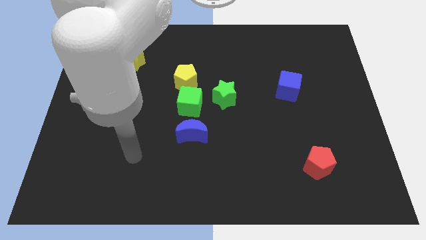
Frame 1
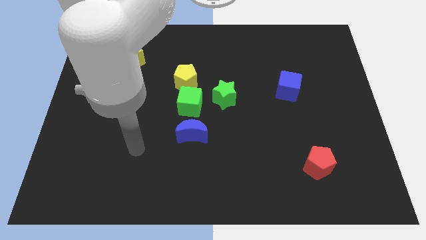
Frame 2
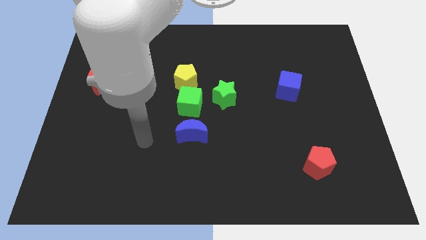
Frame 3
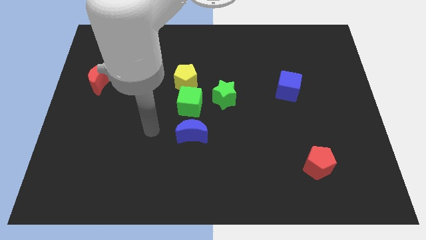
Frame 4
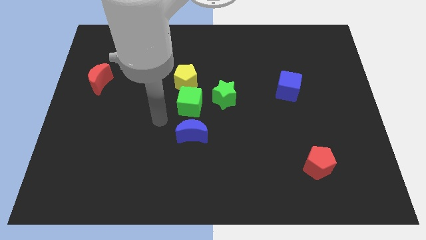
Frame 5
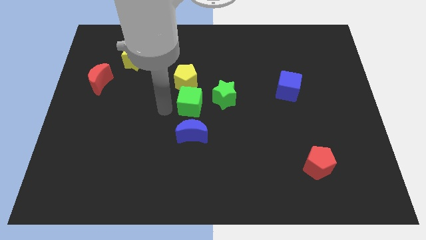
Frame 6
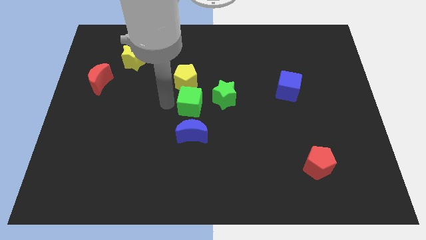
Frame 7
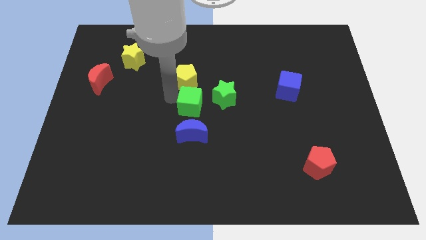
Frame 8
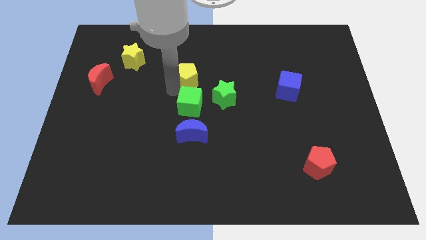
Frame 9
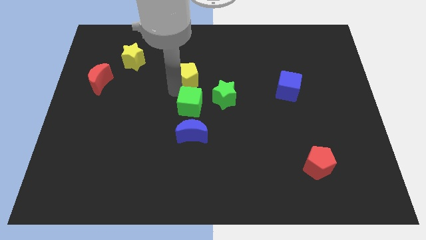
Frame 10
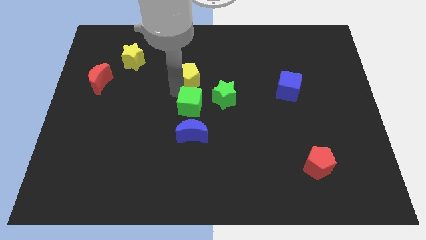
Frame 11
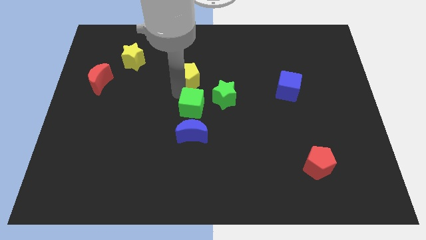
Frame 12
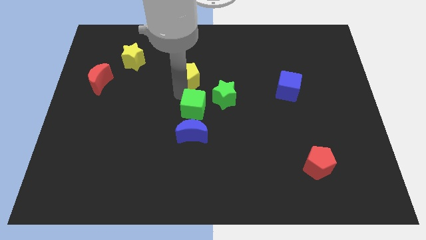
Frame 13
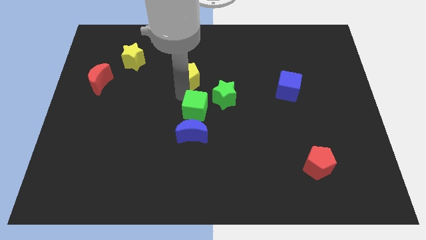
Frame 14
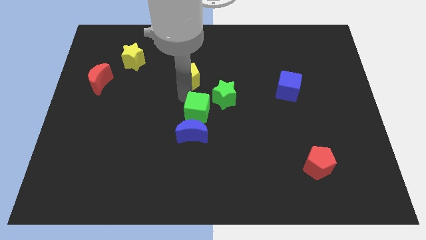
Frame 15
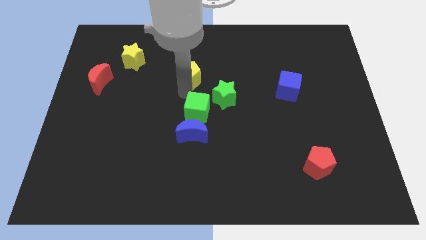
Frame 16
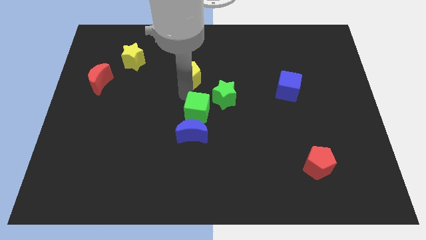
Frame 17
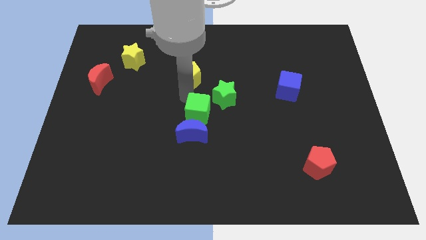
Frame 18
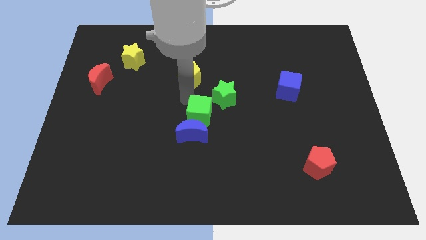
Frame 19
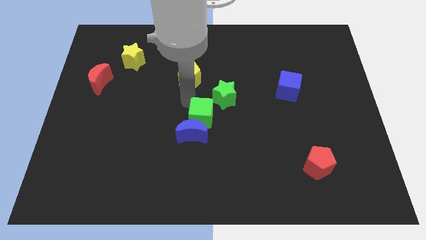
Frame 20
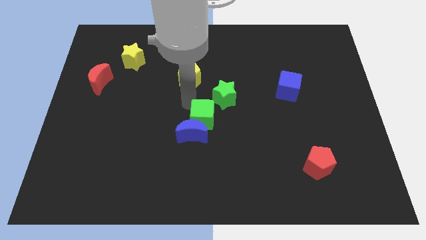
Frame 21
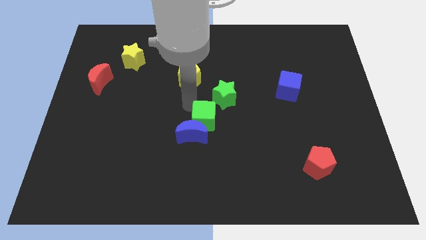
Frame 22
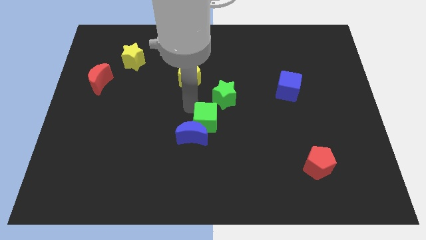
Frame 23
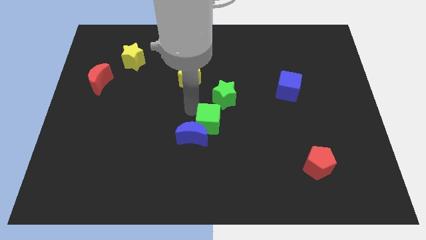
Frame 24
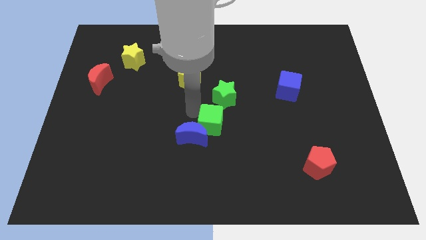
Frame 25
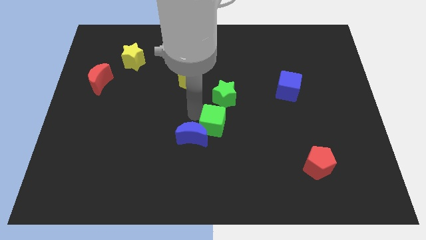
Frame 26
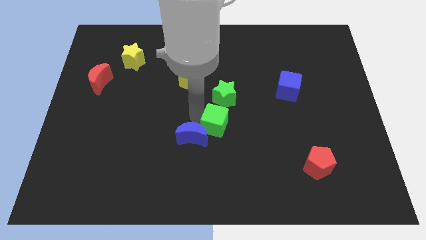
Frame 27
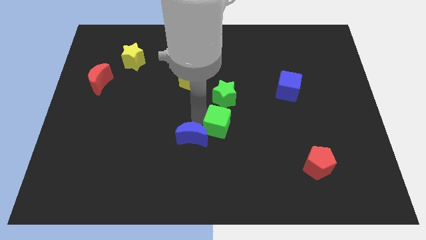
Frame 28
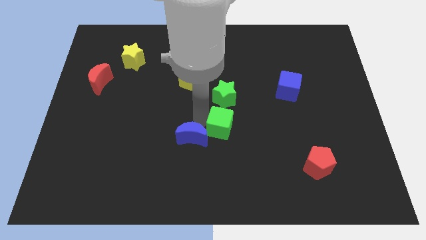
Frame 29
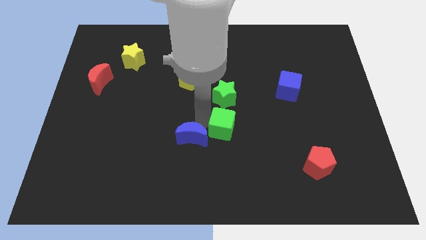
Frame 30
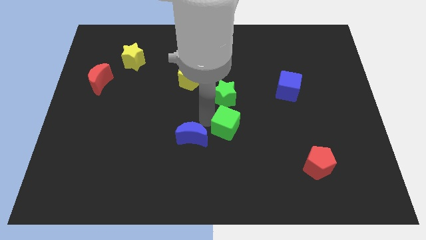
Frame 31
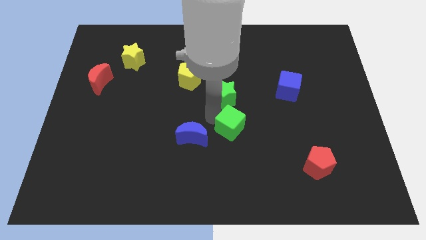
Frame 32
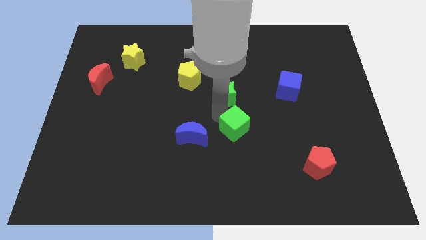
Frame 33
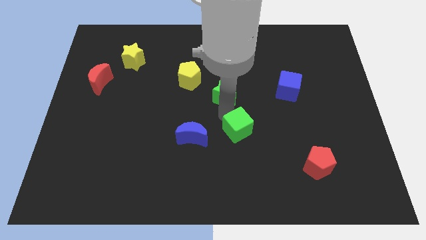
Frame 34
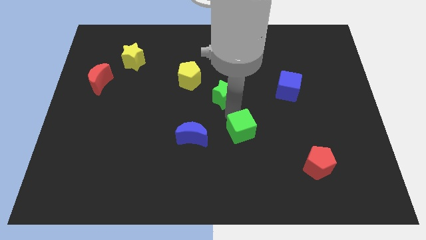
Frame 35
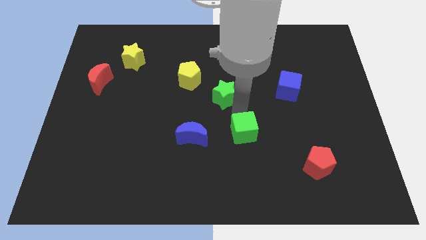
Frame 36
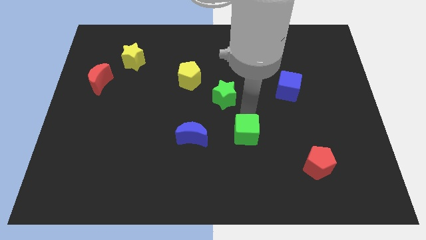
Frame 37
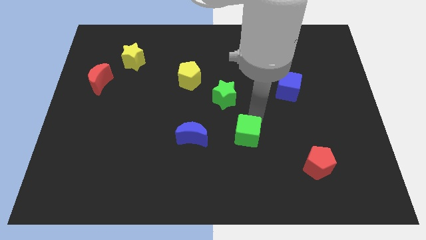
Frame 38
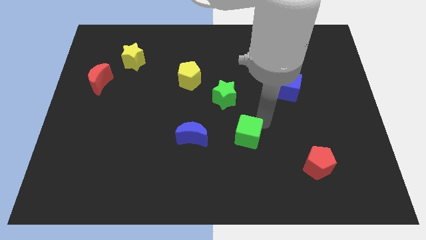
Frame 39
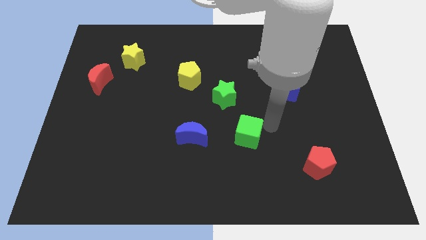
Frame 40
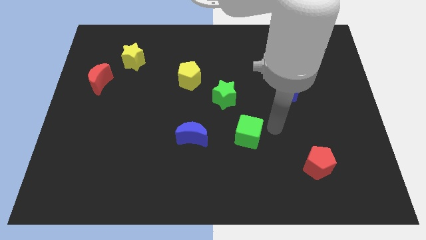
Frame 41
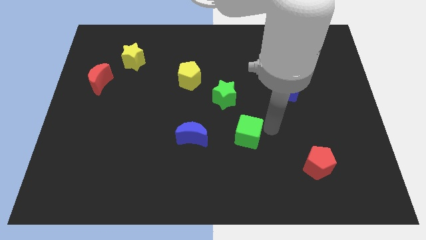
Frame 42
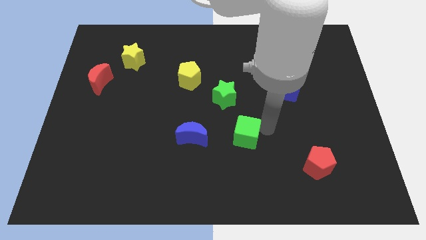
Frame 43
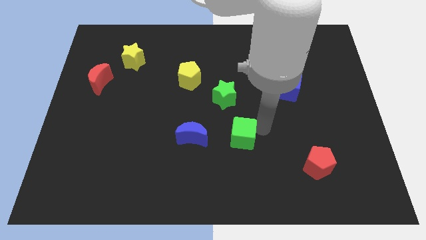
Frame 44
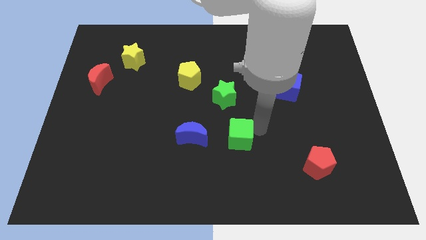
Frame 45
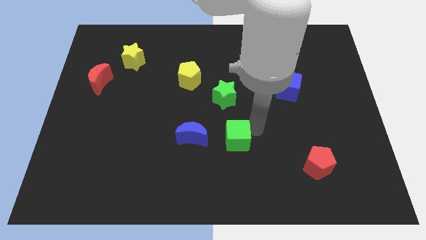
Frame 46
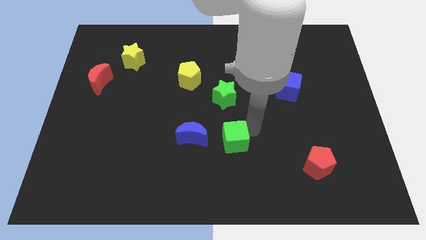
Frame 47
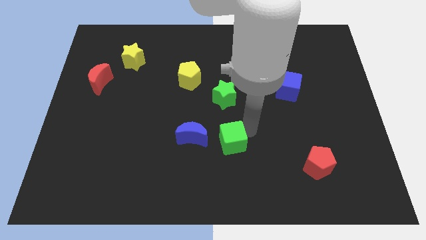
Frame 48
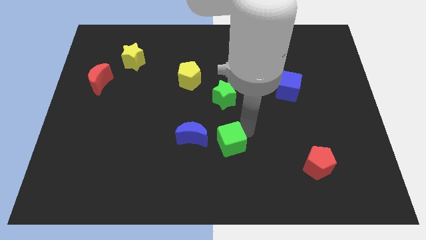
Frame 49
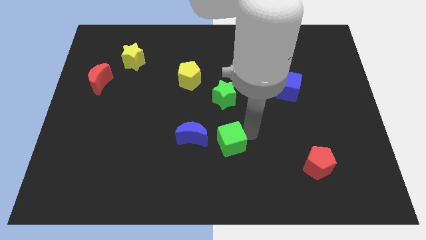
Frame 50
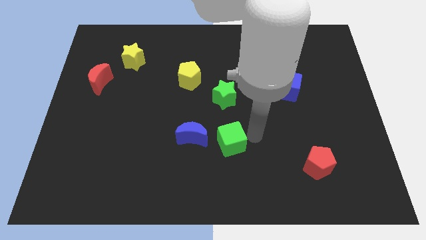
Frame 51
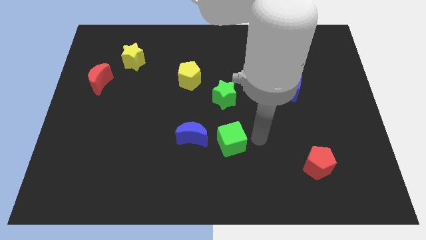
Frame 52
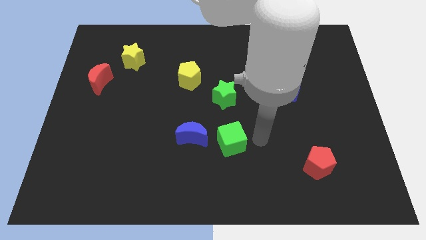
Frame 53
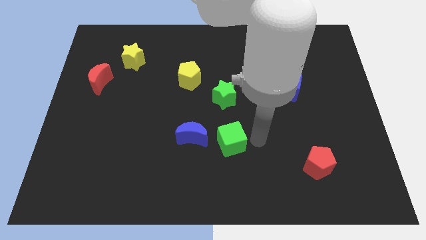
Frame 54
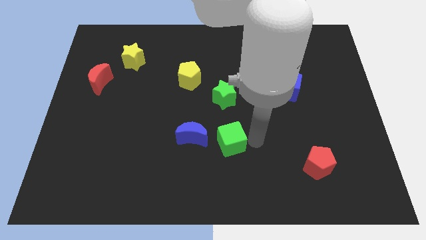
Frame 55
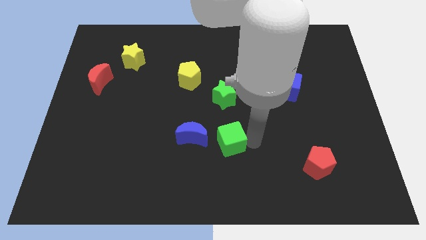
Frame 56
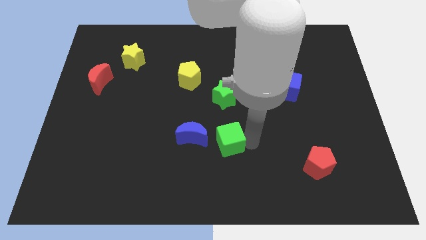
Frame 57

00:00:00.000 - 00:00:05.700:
move the green cube down somewhat

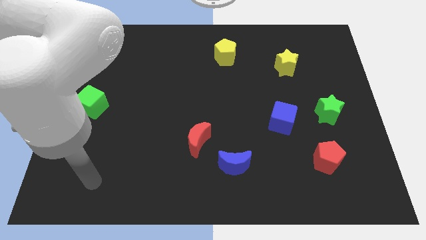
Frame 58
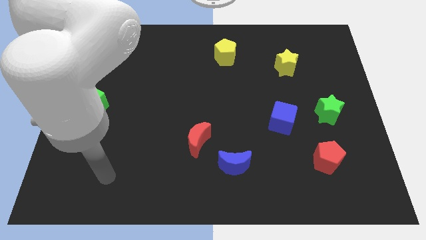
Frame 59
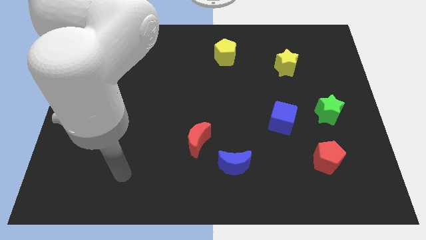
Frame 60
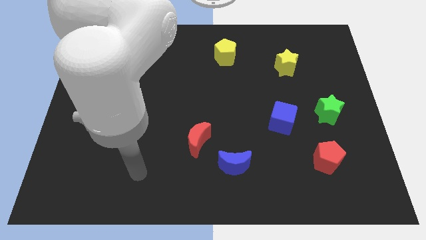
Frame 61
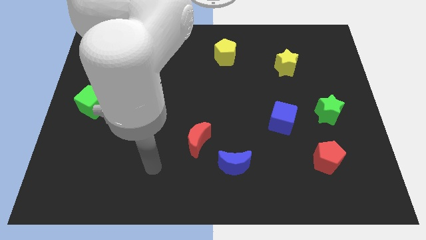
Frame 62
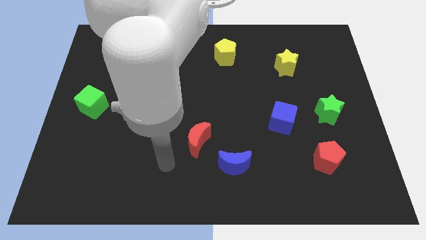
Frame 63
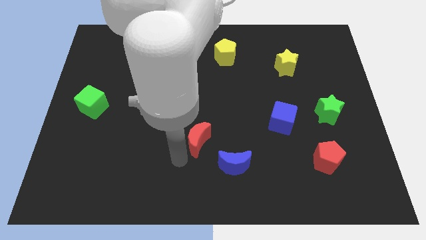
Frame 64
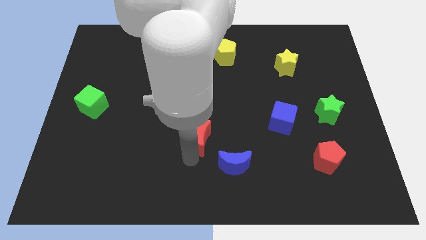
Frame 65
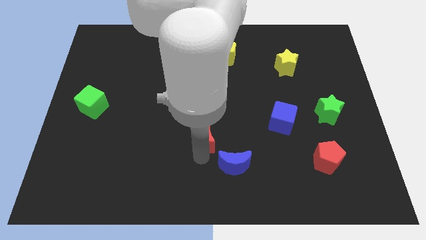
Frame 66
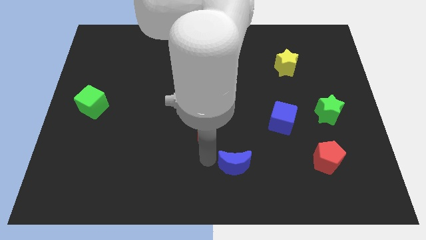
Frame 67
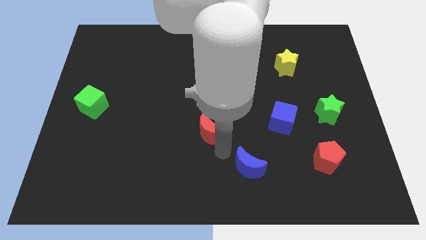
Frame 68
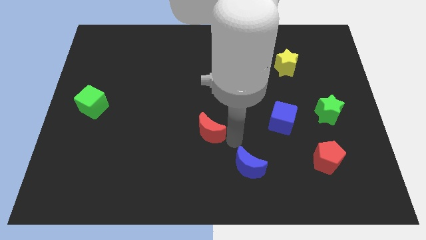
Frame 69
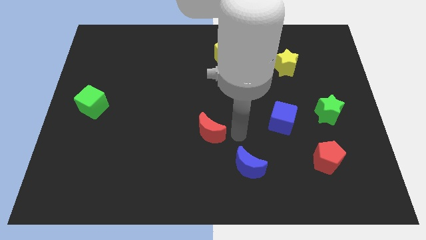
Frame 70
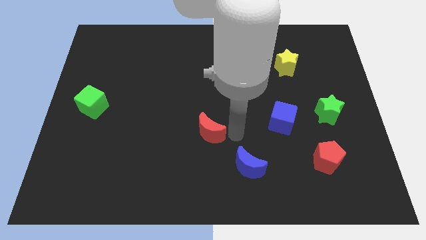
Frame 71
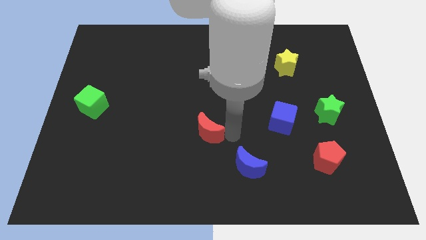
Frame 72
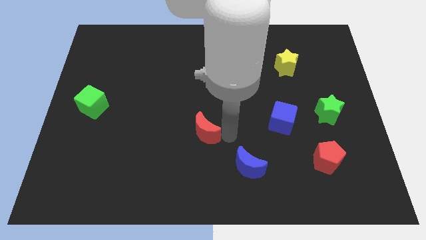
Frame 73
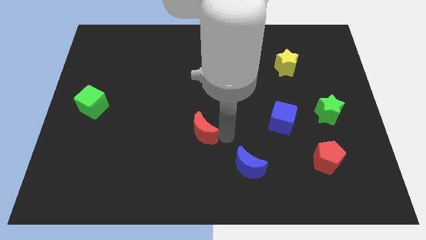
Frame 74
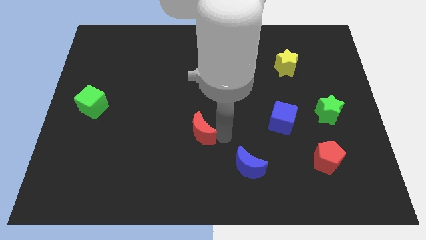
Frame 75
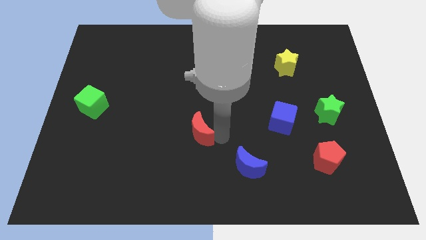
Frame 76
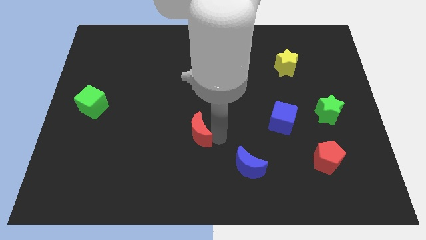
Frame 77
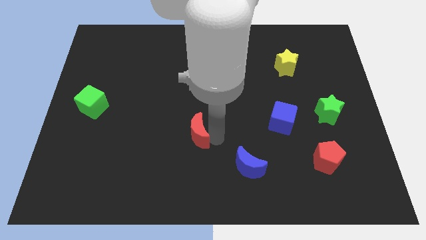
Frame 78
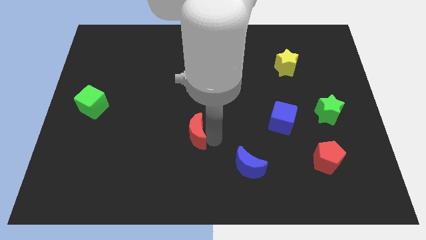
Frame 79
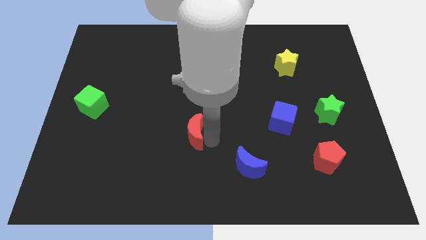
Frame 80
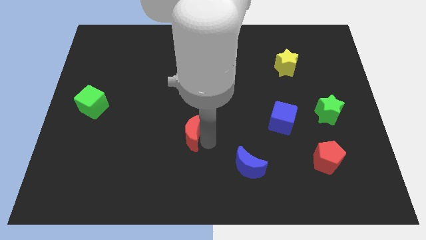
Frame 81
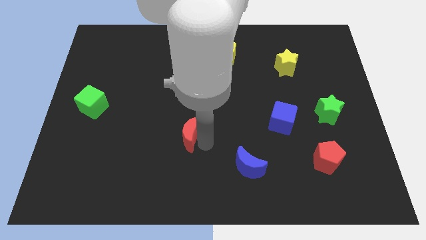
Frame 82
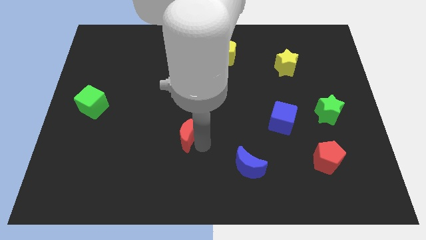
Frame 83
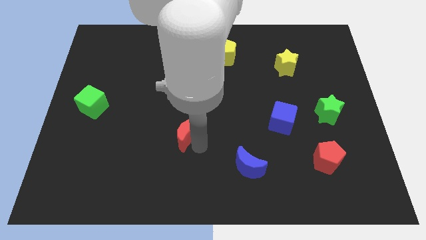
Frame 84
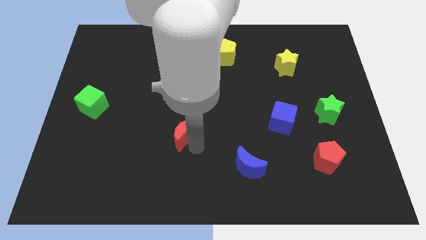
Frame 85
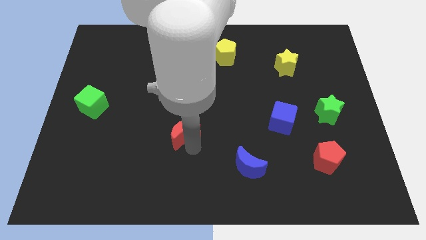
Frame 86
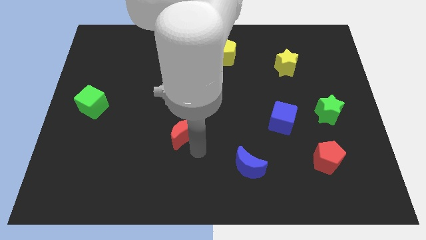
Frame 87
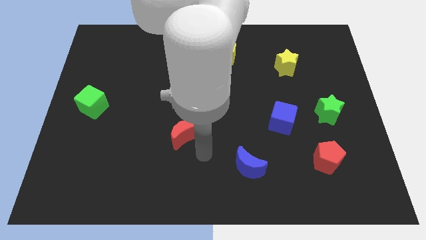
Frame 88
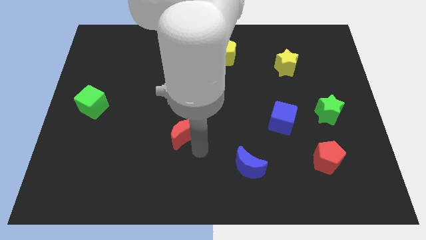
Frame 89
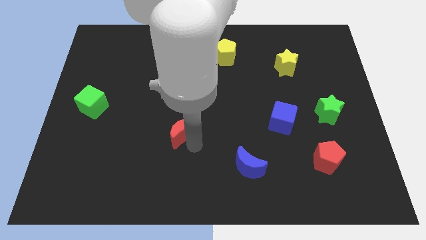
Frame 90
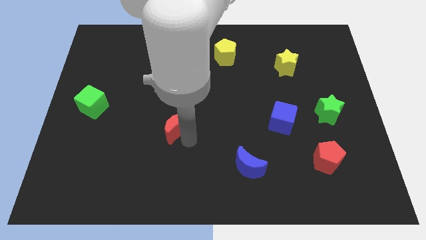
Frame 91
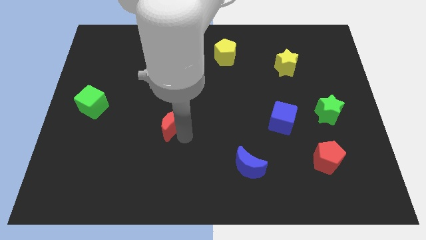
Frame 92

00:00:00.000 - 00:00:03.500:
slightly push the red moon upwards and left diagonally
